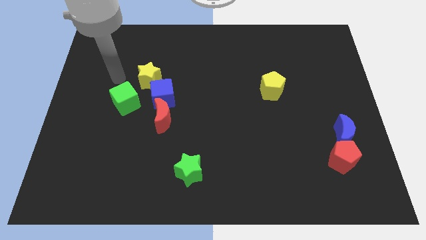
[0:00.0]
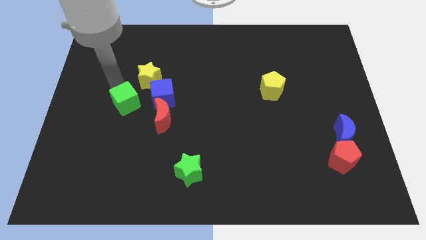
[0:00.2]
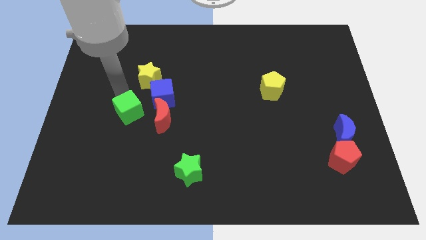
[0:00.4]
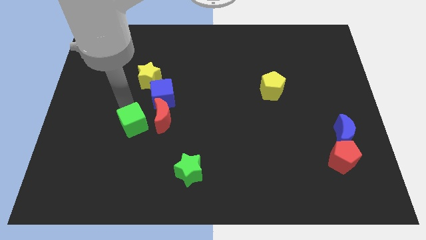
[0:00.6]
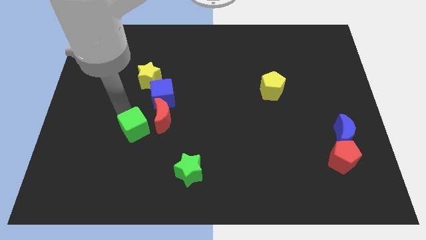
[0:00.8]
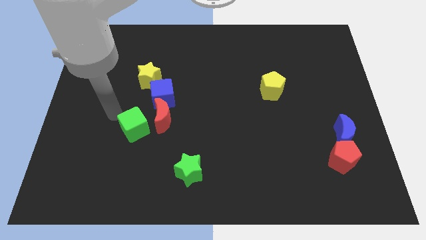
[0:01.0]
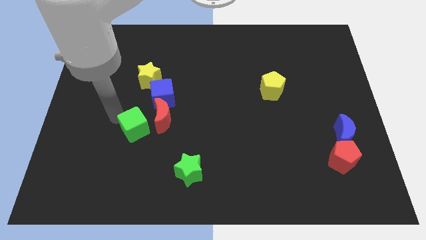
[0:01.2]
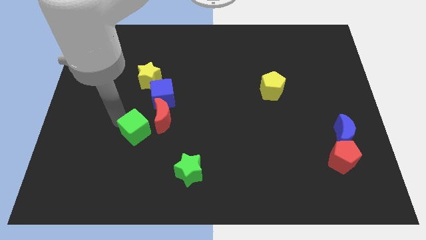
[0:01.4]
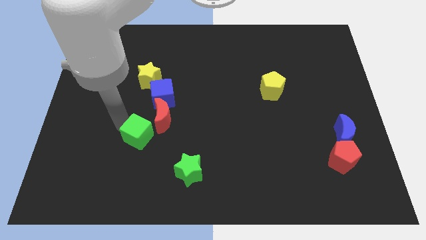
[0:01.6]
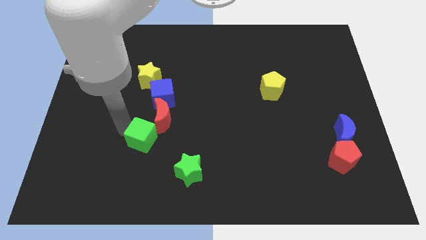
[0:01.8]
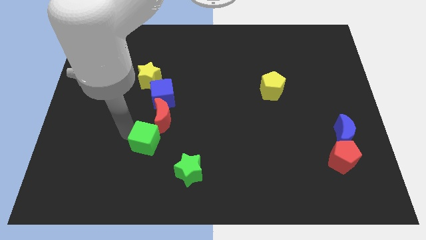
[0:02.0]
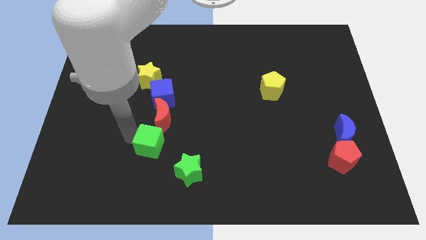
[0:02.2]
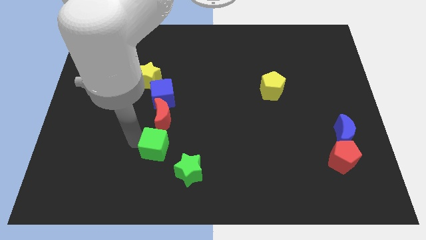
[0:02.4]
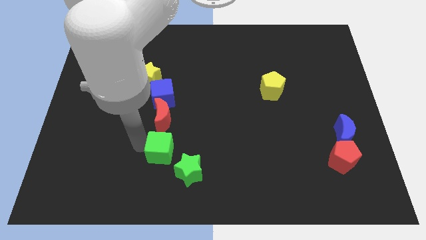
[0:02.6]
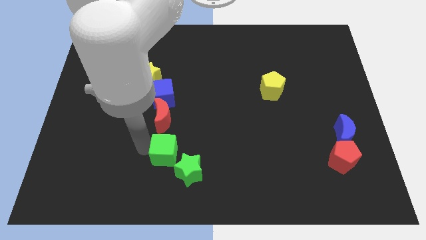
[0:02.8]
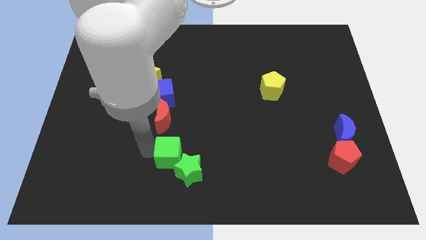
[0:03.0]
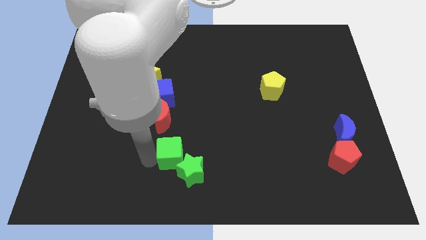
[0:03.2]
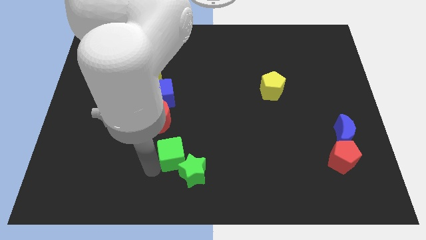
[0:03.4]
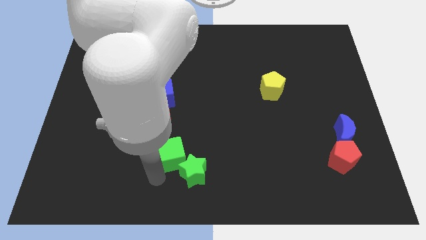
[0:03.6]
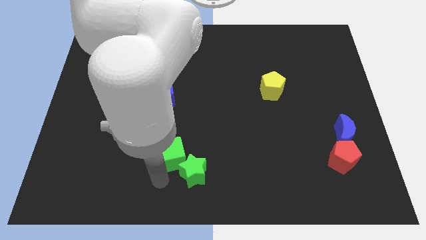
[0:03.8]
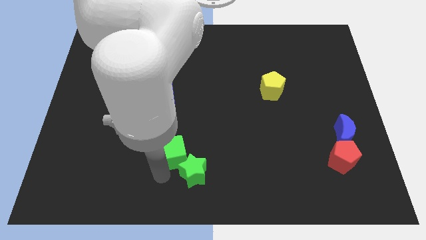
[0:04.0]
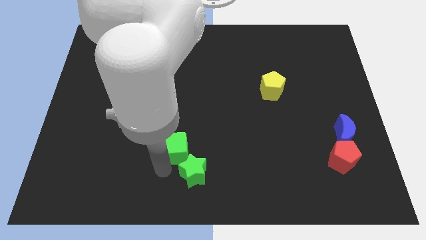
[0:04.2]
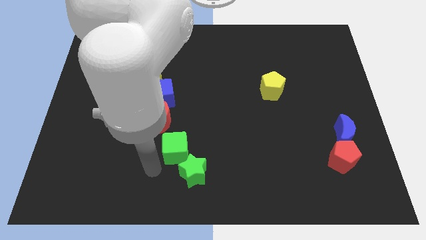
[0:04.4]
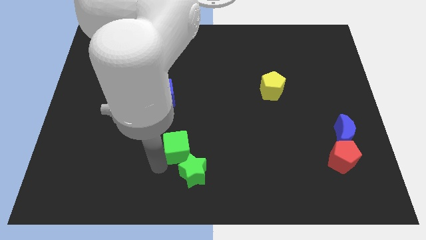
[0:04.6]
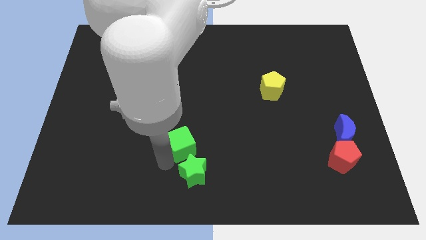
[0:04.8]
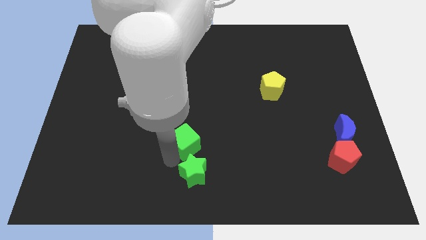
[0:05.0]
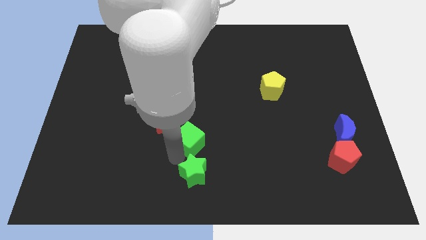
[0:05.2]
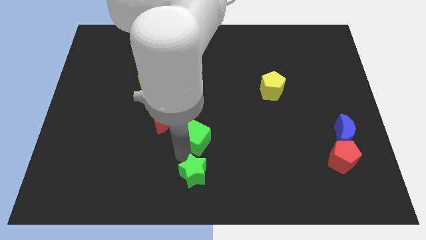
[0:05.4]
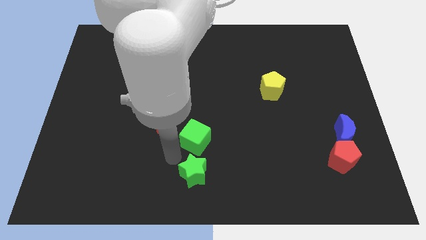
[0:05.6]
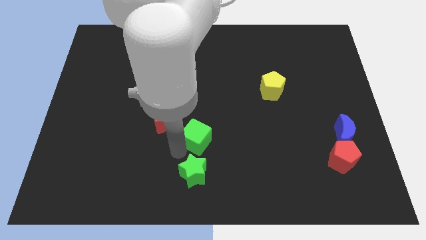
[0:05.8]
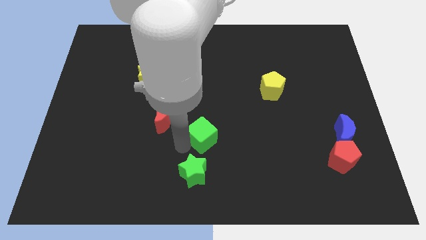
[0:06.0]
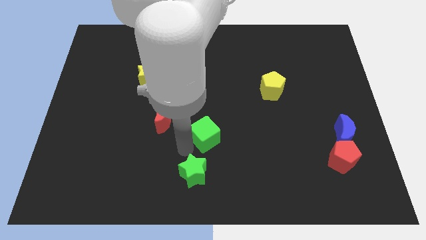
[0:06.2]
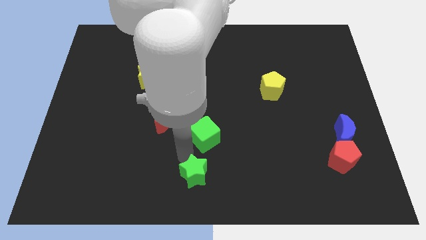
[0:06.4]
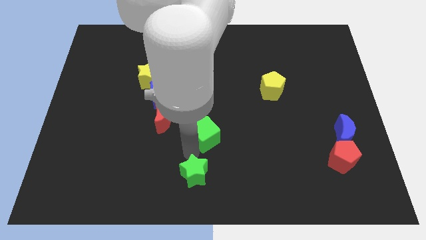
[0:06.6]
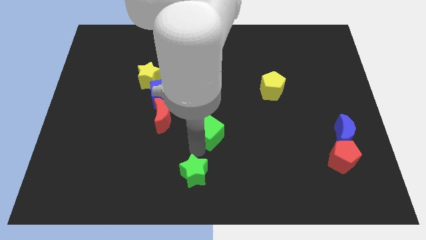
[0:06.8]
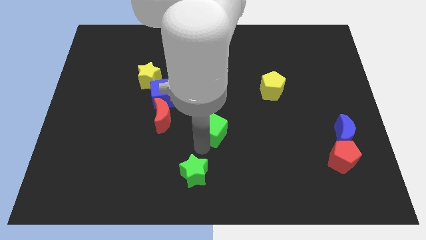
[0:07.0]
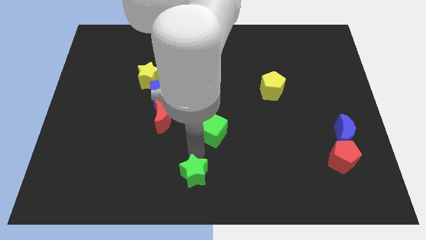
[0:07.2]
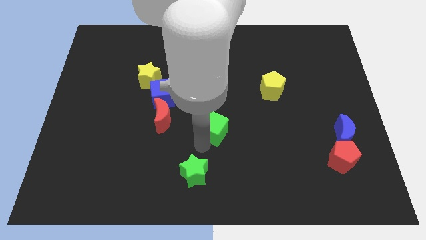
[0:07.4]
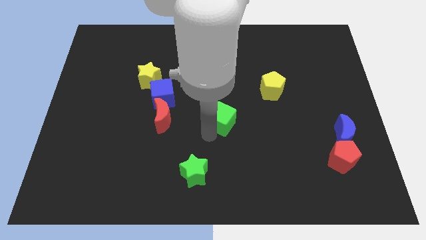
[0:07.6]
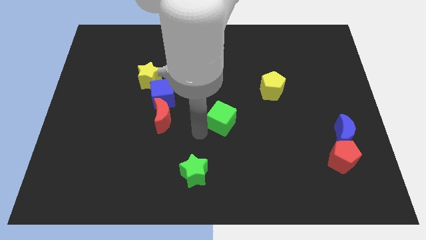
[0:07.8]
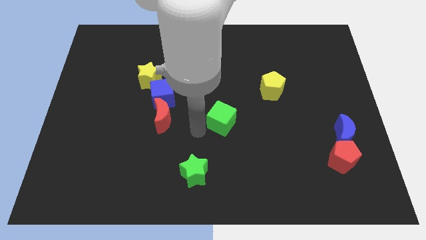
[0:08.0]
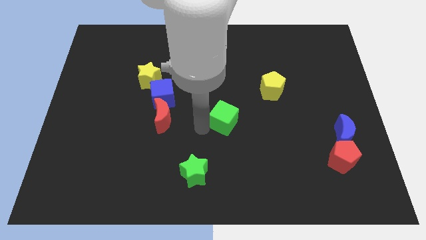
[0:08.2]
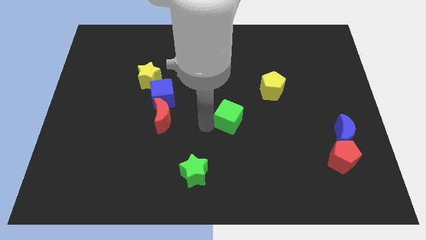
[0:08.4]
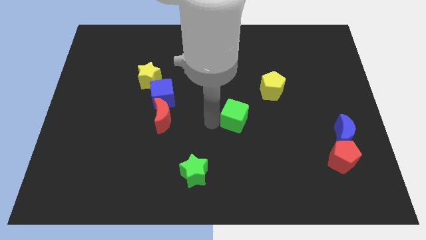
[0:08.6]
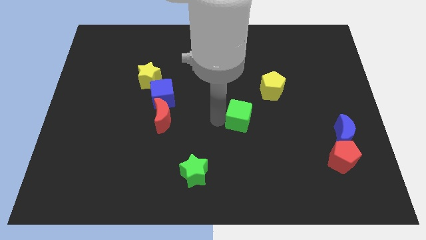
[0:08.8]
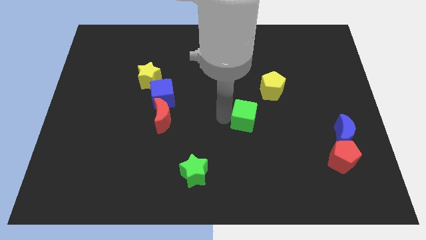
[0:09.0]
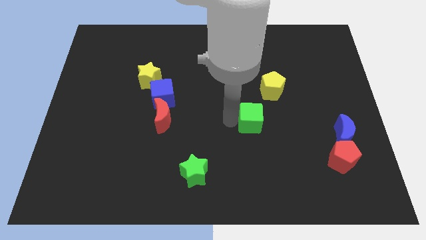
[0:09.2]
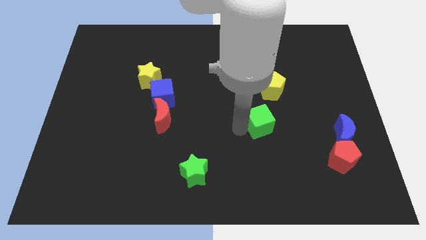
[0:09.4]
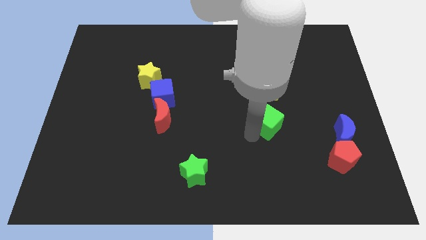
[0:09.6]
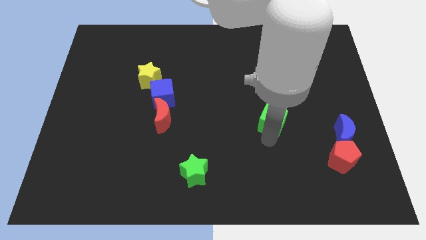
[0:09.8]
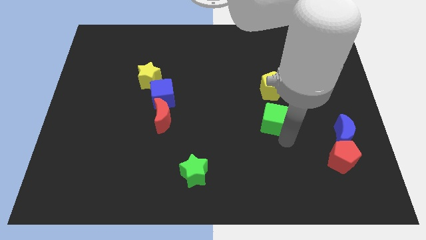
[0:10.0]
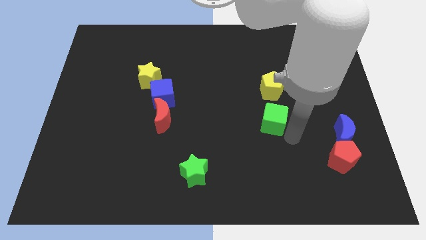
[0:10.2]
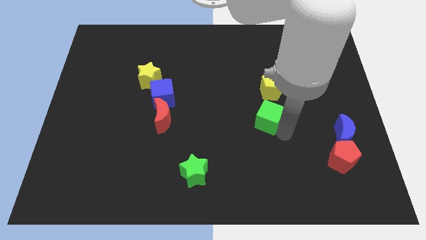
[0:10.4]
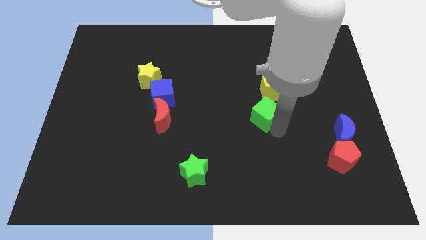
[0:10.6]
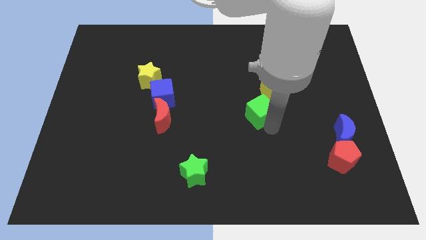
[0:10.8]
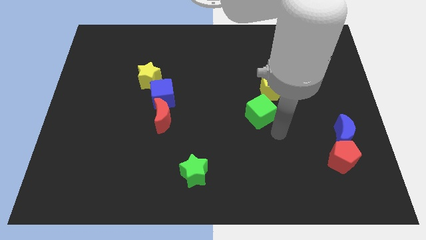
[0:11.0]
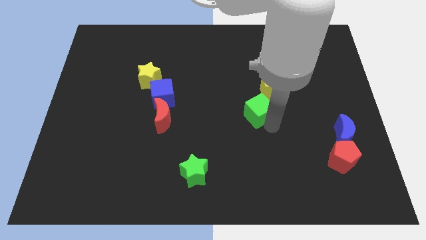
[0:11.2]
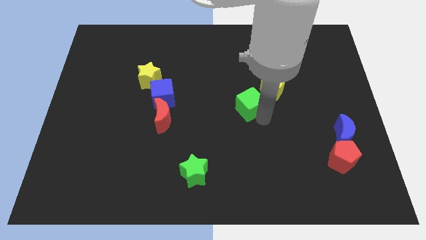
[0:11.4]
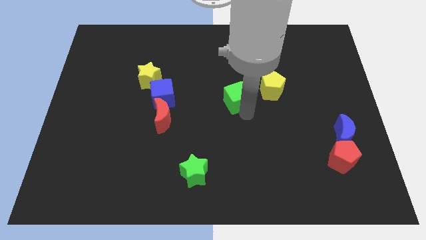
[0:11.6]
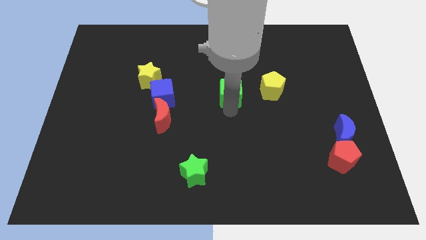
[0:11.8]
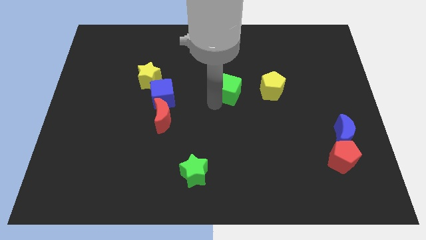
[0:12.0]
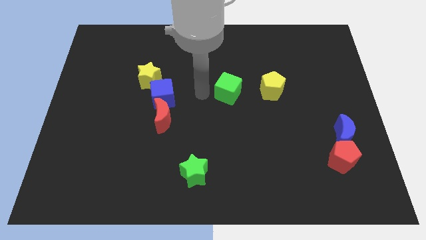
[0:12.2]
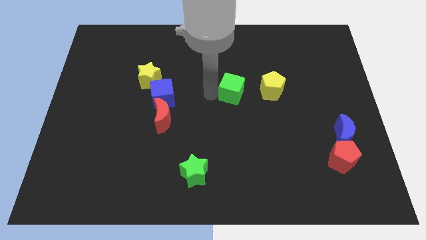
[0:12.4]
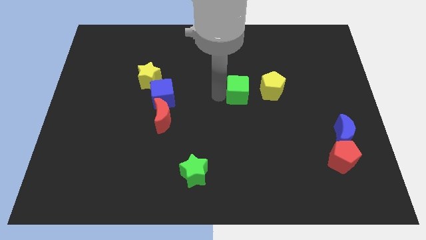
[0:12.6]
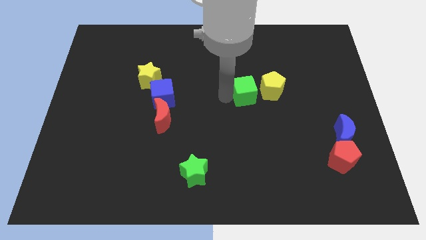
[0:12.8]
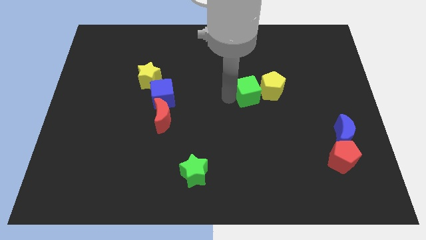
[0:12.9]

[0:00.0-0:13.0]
push the green cube next to the yellow pentagon

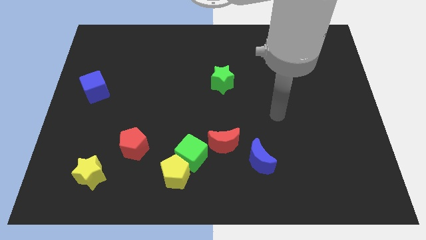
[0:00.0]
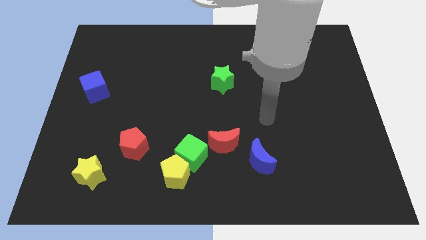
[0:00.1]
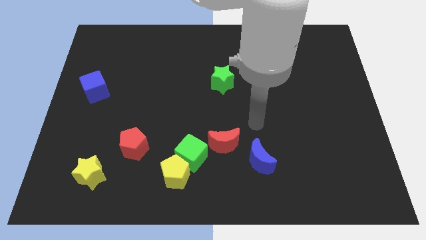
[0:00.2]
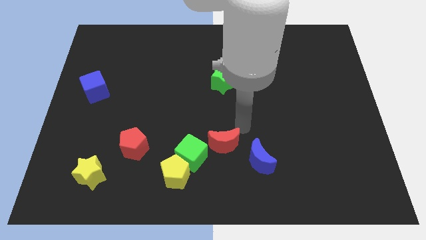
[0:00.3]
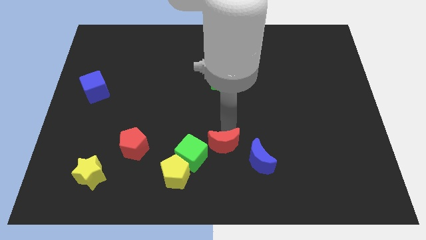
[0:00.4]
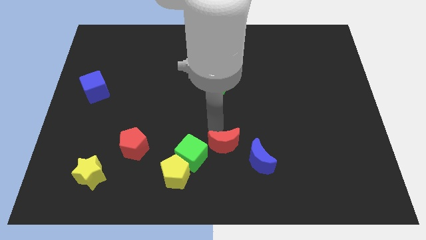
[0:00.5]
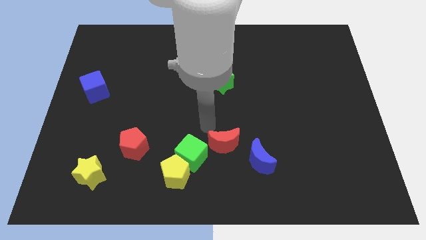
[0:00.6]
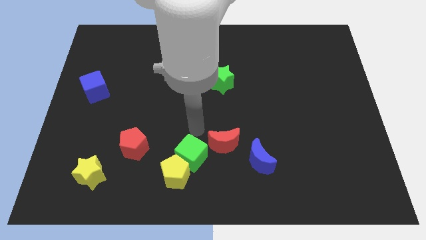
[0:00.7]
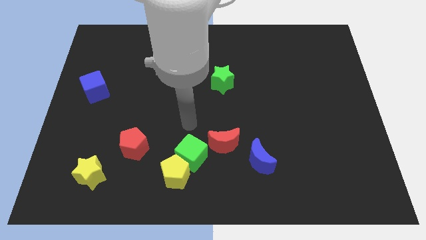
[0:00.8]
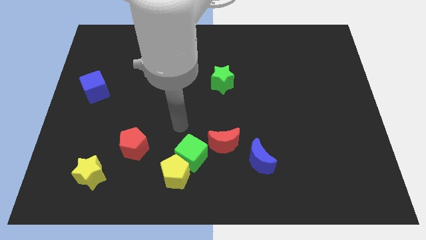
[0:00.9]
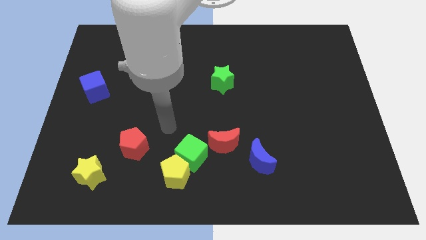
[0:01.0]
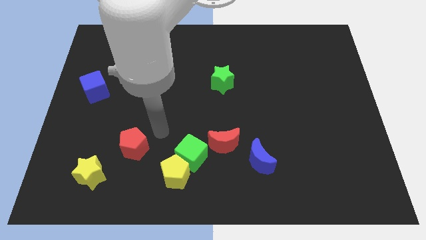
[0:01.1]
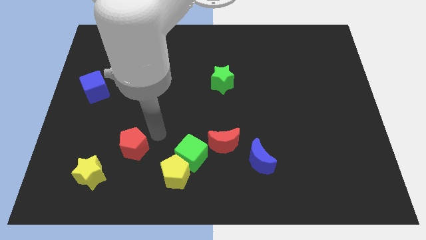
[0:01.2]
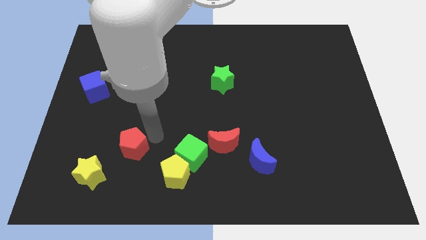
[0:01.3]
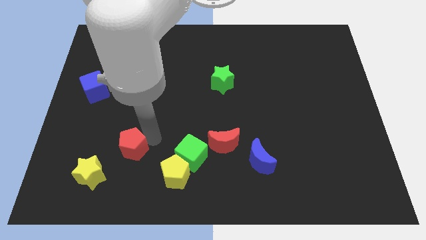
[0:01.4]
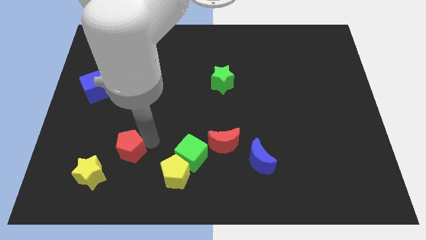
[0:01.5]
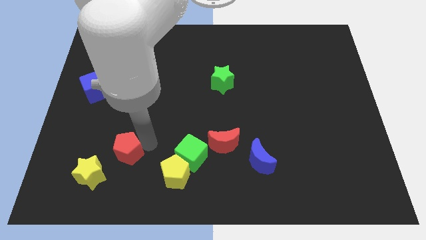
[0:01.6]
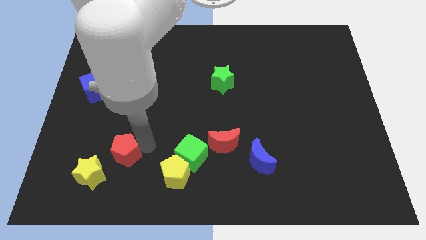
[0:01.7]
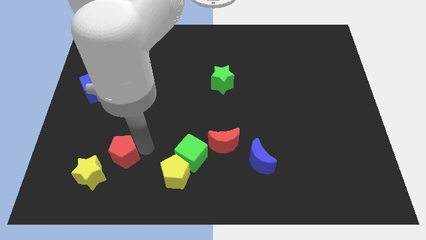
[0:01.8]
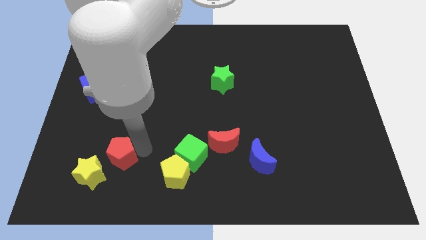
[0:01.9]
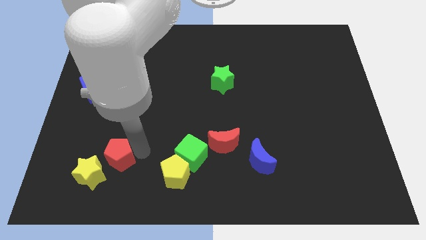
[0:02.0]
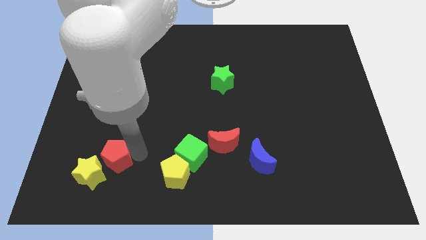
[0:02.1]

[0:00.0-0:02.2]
push the red pentagon to the yellow star
